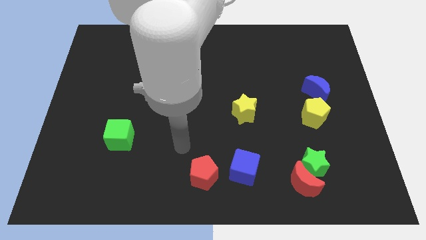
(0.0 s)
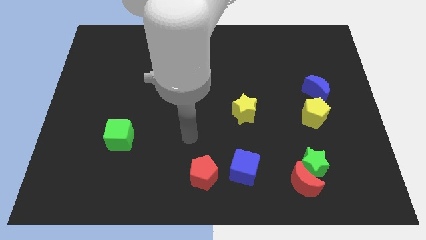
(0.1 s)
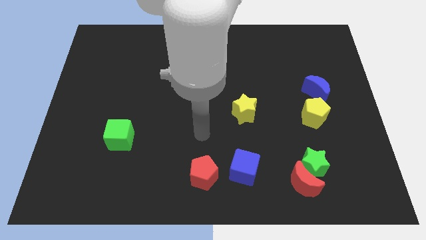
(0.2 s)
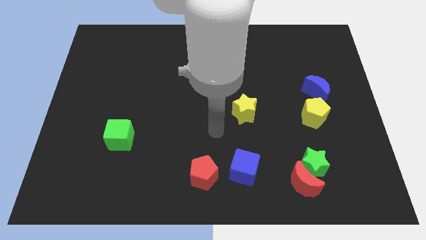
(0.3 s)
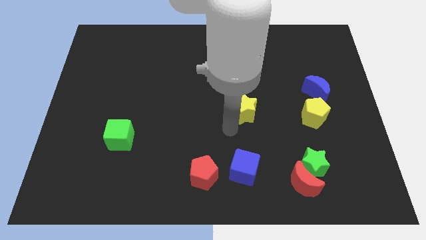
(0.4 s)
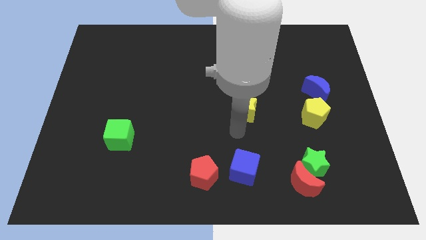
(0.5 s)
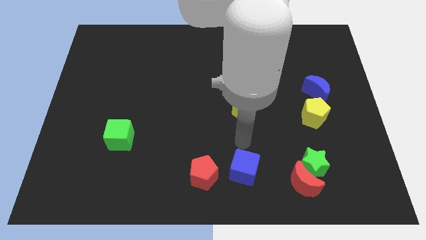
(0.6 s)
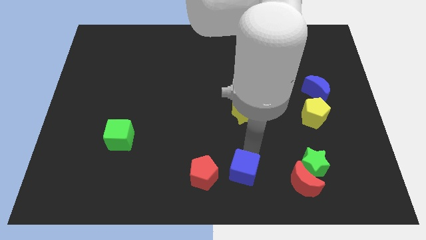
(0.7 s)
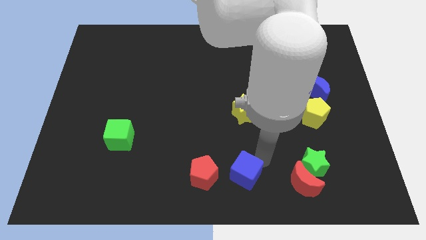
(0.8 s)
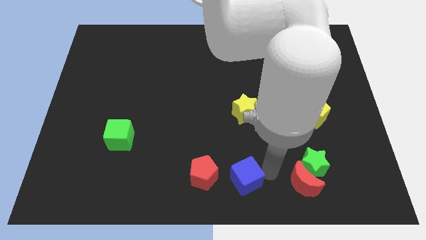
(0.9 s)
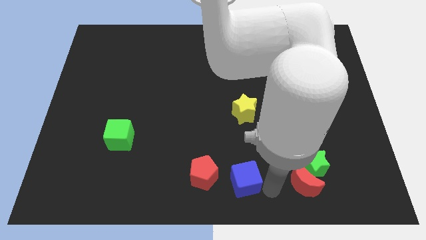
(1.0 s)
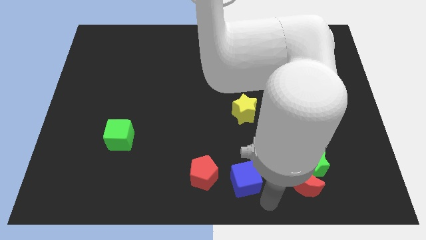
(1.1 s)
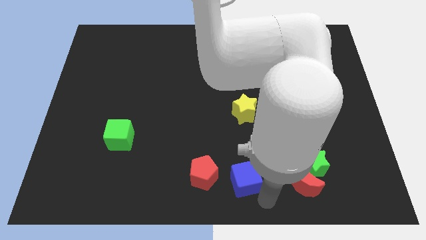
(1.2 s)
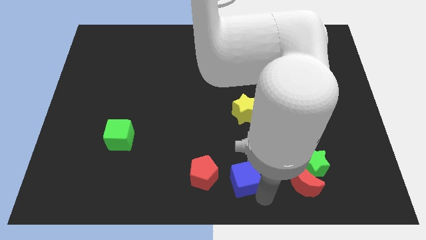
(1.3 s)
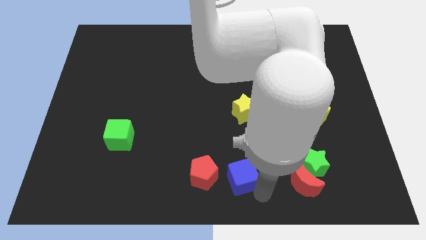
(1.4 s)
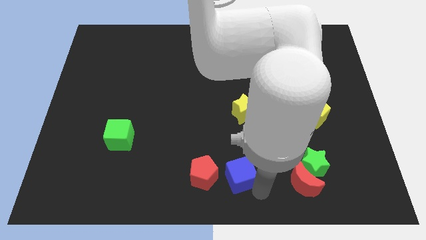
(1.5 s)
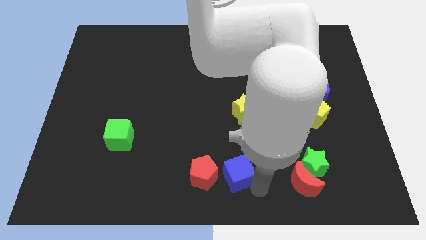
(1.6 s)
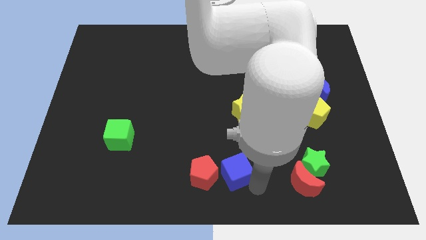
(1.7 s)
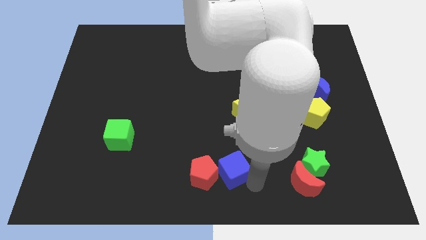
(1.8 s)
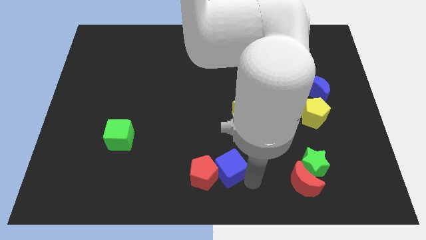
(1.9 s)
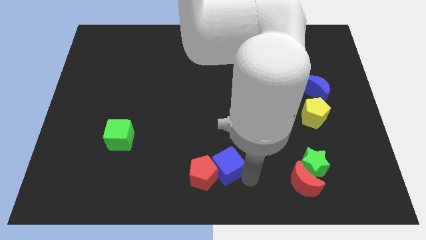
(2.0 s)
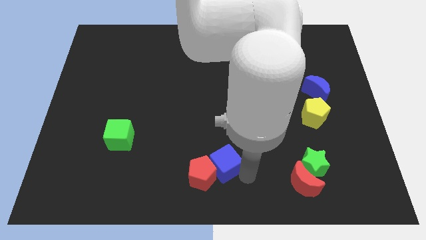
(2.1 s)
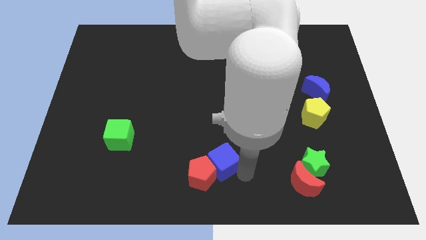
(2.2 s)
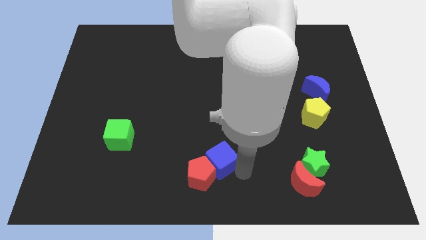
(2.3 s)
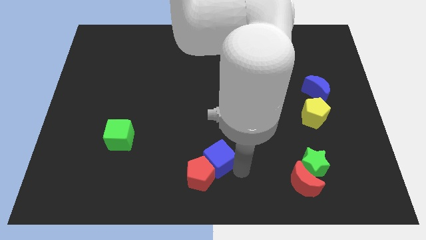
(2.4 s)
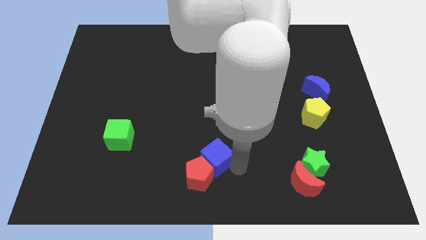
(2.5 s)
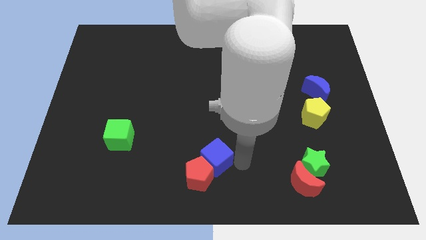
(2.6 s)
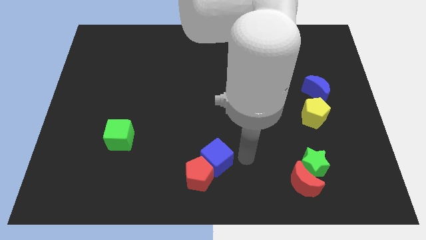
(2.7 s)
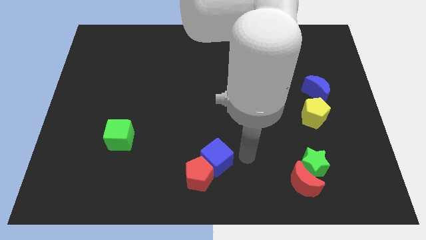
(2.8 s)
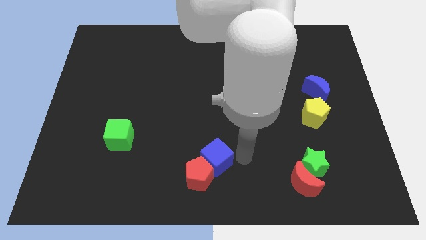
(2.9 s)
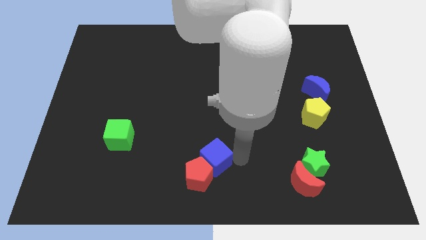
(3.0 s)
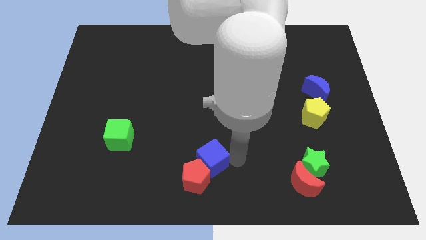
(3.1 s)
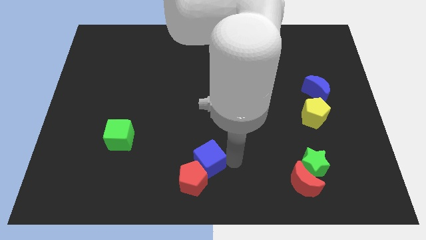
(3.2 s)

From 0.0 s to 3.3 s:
push the blue cube left a little bit

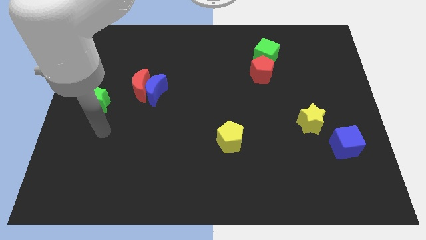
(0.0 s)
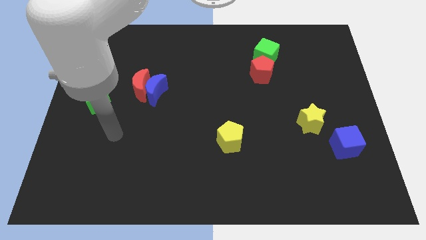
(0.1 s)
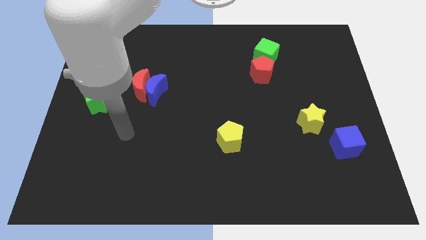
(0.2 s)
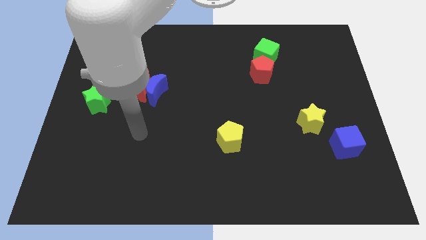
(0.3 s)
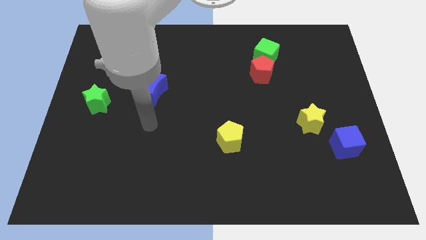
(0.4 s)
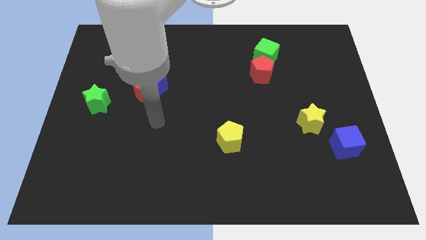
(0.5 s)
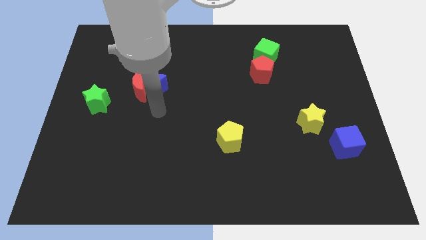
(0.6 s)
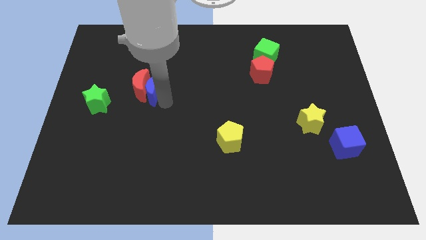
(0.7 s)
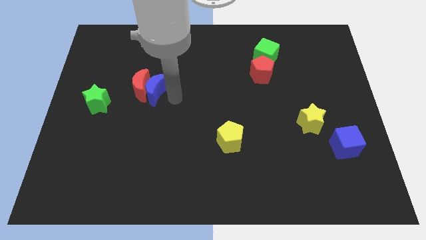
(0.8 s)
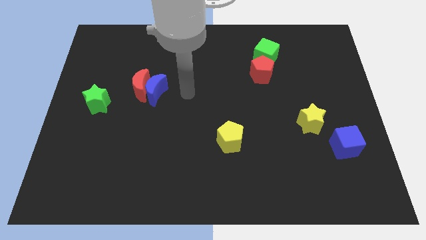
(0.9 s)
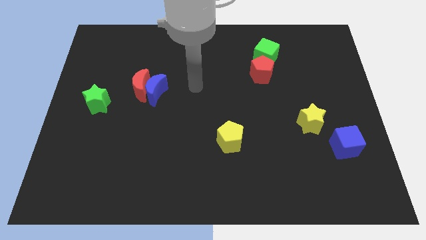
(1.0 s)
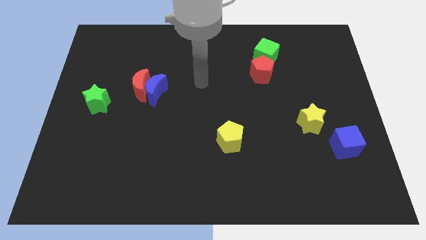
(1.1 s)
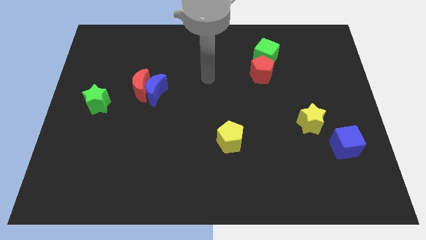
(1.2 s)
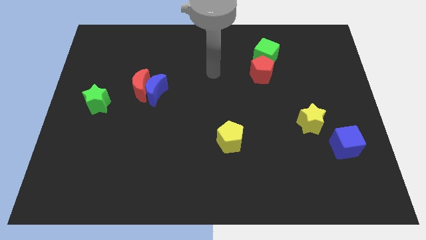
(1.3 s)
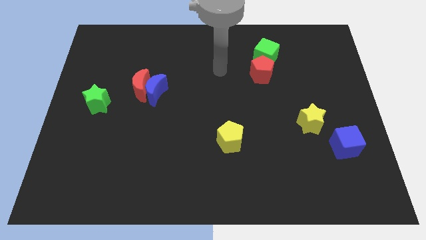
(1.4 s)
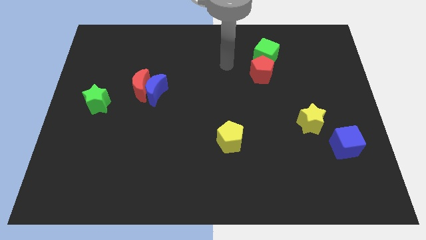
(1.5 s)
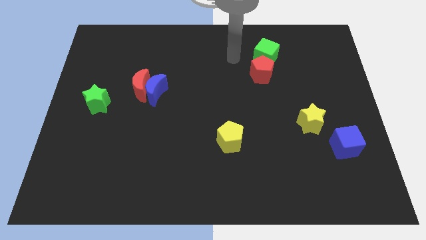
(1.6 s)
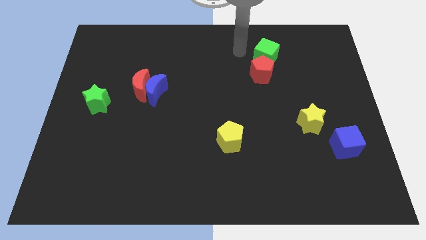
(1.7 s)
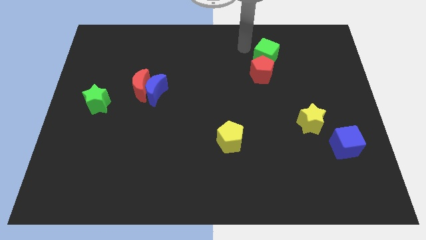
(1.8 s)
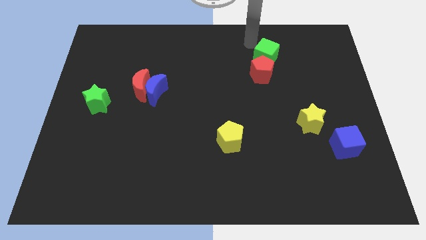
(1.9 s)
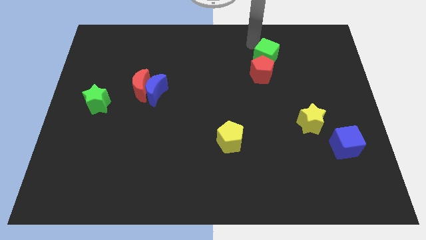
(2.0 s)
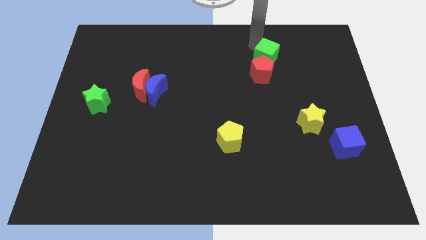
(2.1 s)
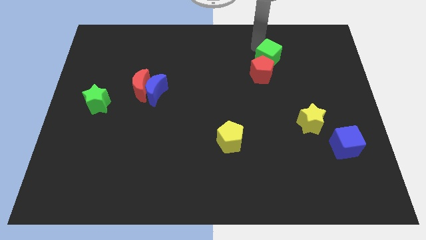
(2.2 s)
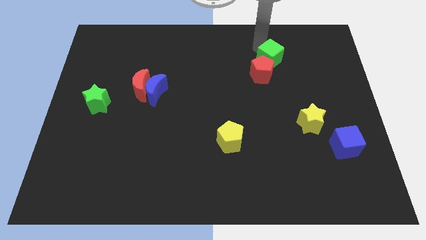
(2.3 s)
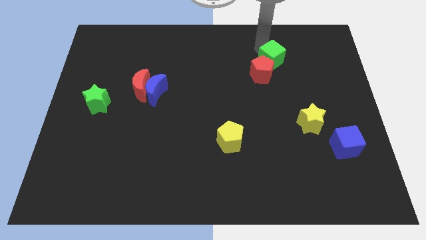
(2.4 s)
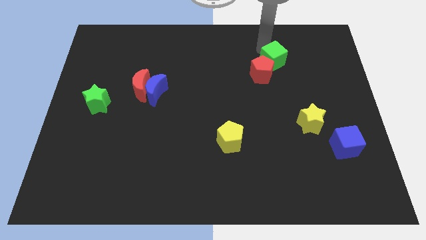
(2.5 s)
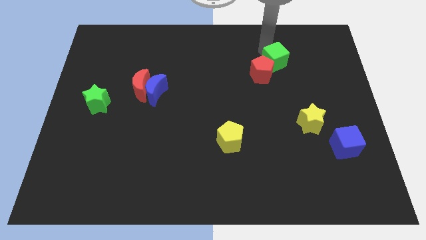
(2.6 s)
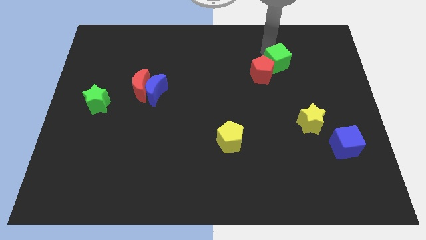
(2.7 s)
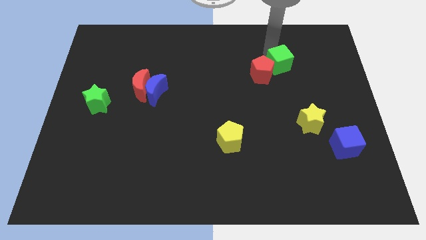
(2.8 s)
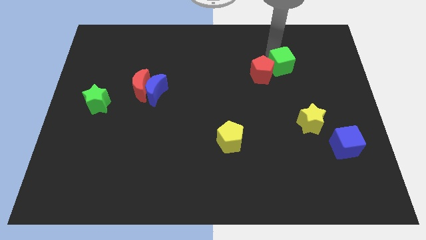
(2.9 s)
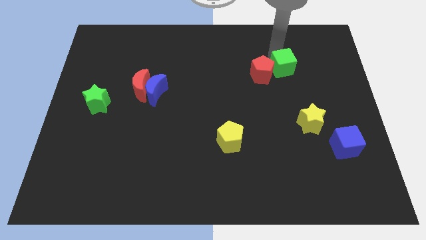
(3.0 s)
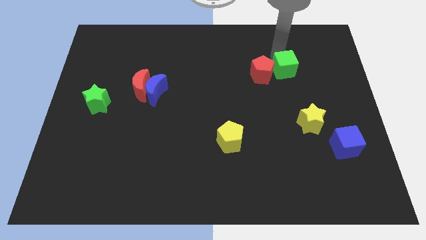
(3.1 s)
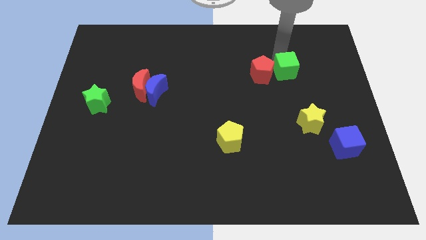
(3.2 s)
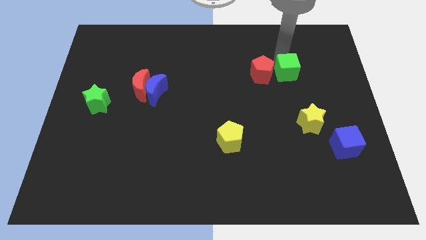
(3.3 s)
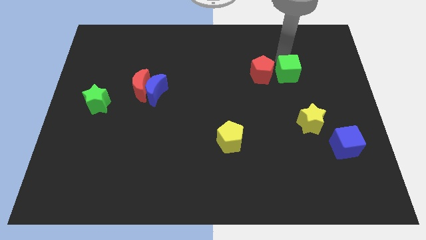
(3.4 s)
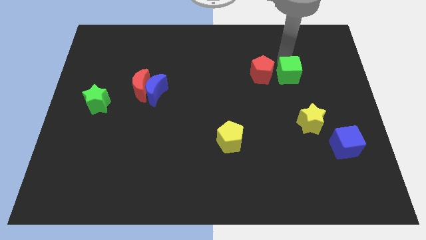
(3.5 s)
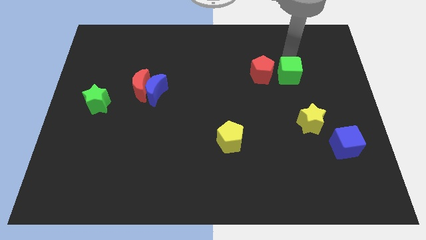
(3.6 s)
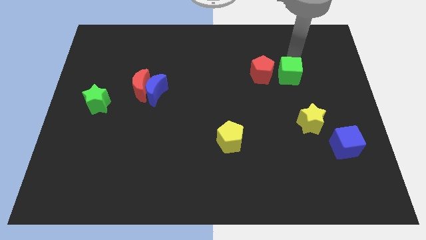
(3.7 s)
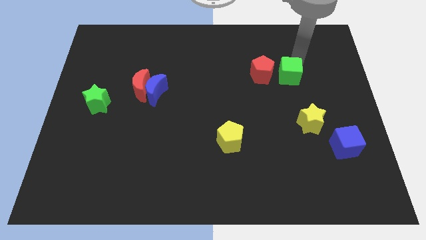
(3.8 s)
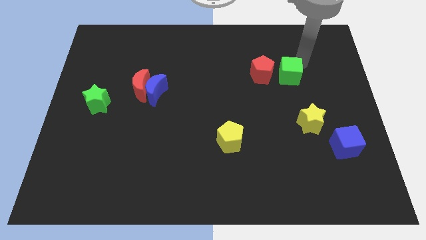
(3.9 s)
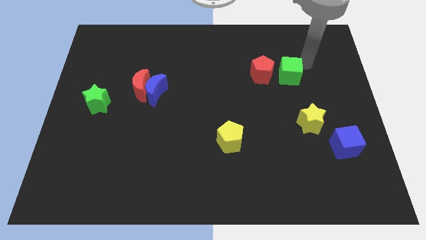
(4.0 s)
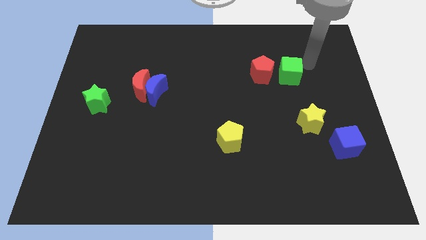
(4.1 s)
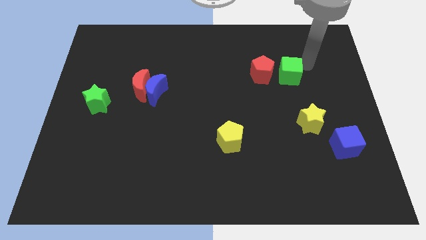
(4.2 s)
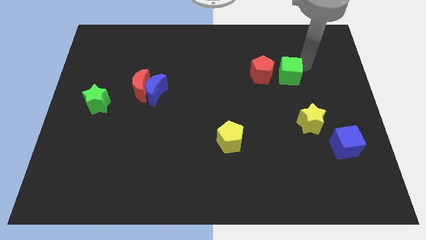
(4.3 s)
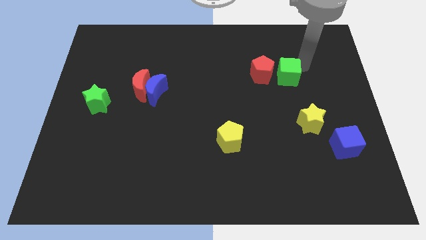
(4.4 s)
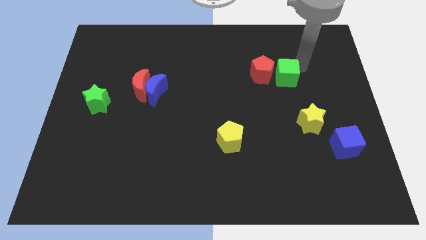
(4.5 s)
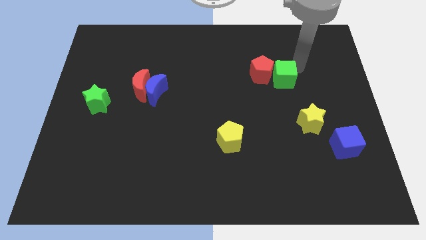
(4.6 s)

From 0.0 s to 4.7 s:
move the green cube somewhat down
